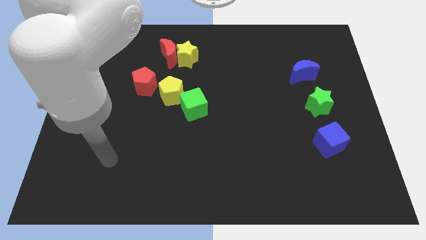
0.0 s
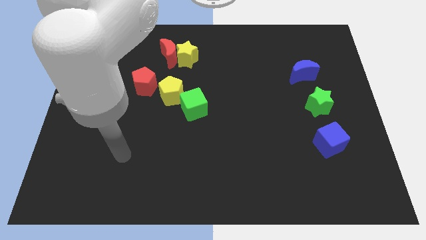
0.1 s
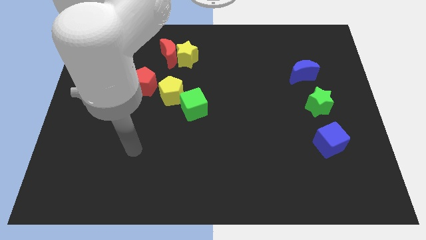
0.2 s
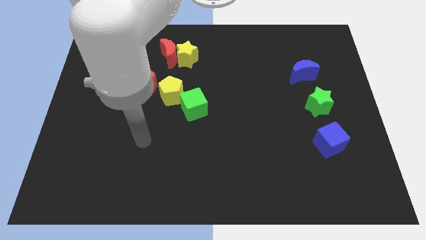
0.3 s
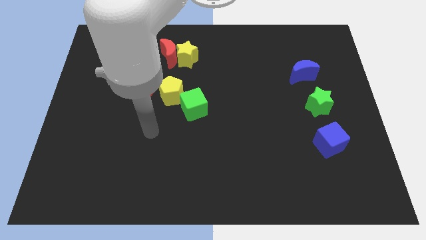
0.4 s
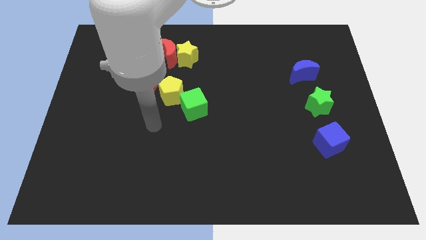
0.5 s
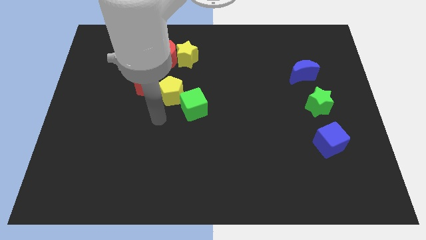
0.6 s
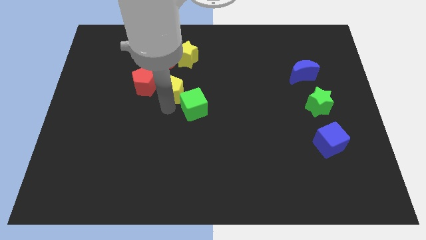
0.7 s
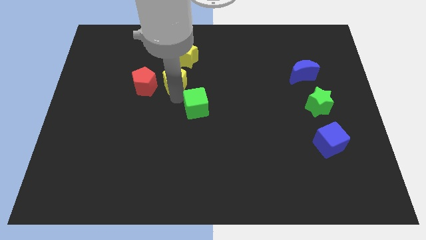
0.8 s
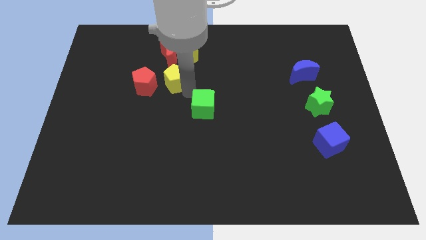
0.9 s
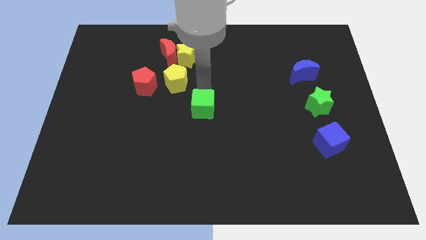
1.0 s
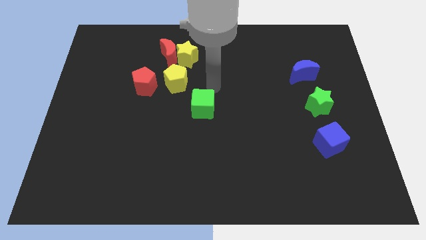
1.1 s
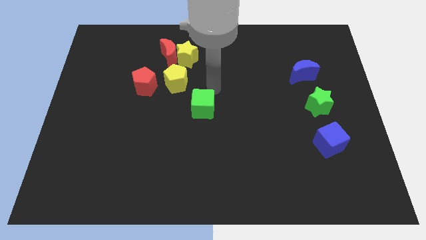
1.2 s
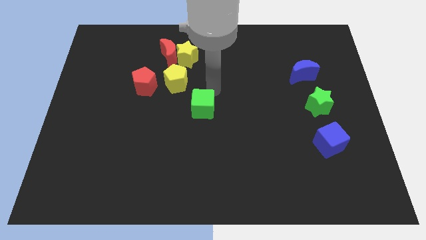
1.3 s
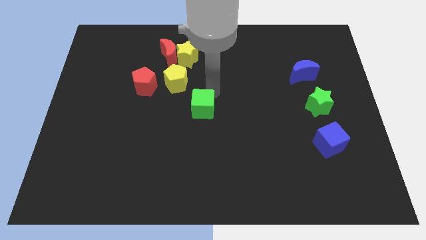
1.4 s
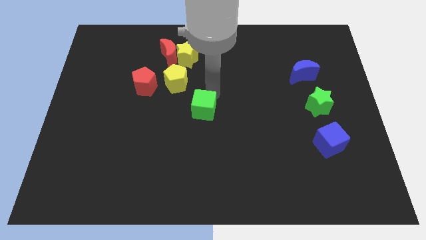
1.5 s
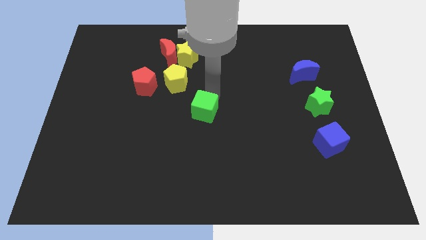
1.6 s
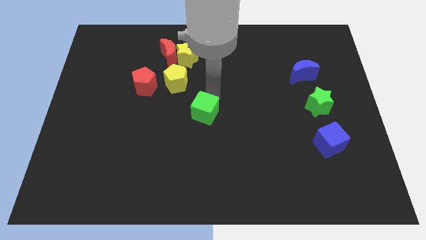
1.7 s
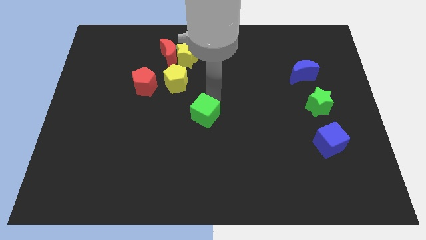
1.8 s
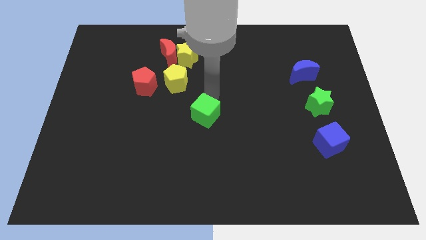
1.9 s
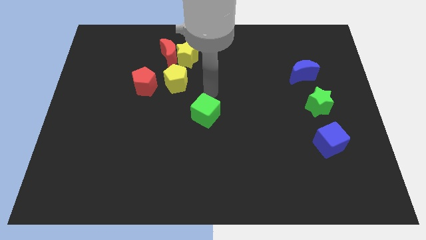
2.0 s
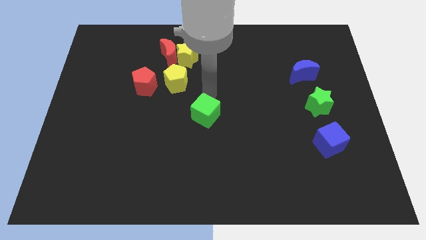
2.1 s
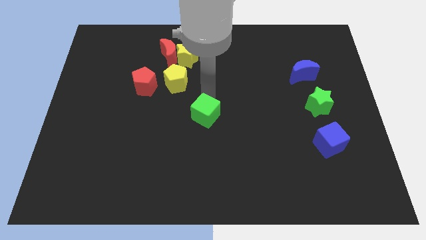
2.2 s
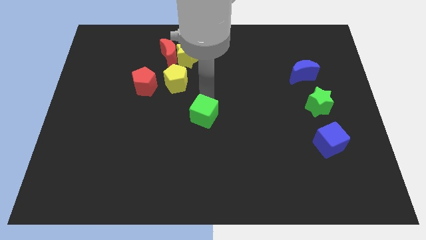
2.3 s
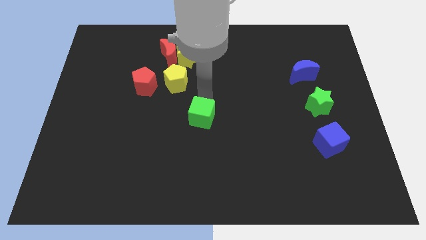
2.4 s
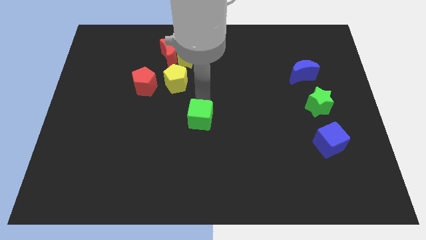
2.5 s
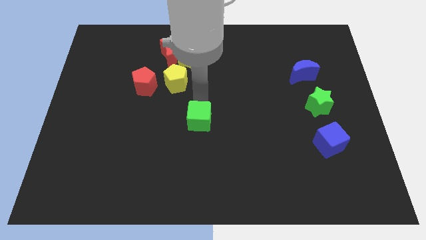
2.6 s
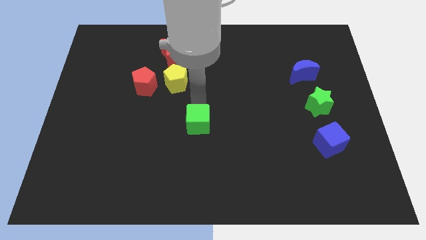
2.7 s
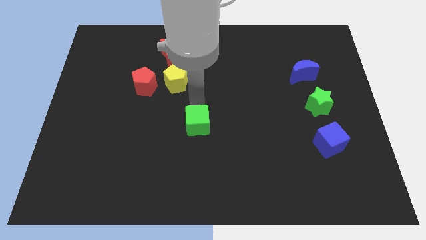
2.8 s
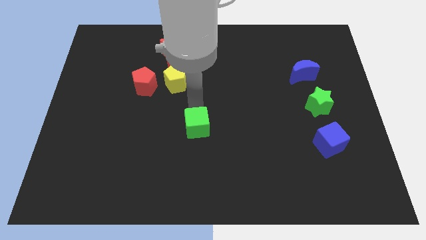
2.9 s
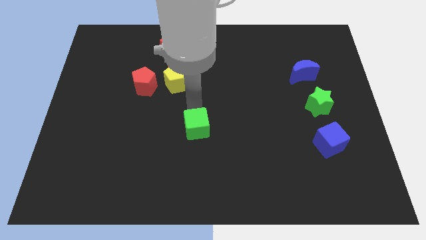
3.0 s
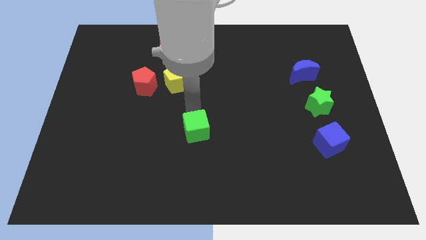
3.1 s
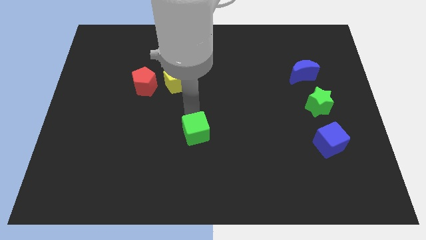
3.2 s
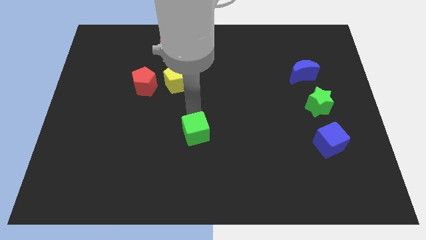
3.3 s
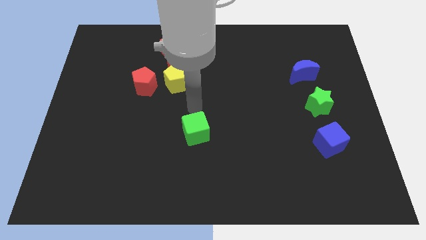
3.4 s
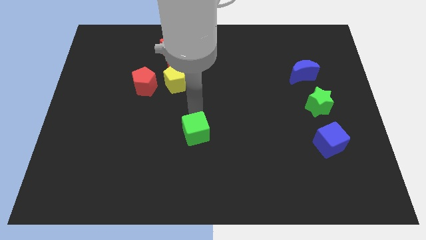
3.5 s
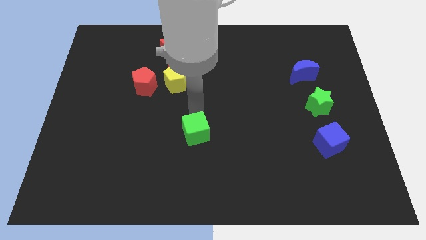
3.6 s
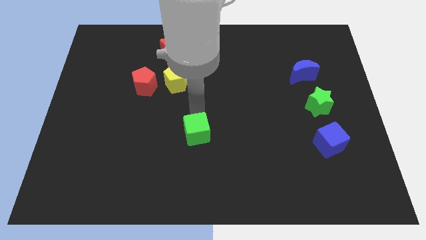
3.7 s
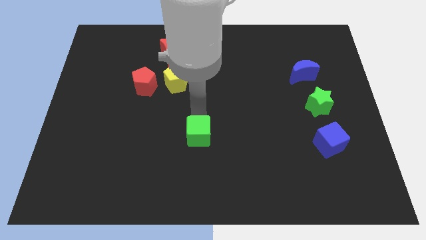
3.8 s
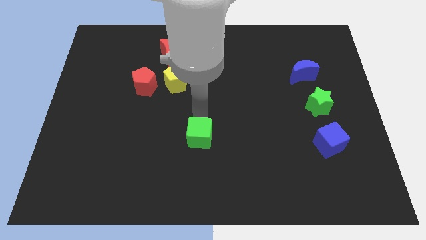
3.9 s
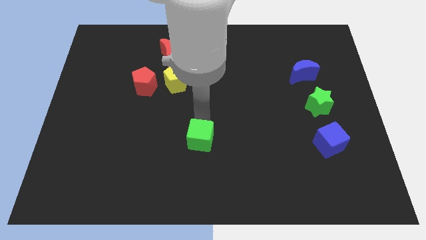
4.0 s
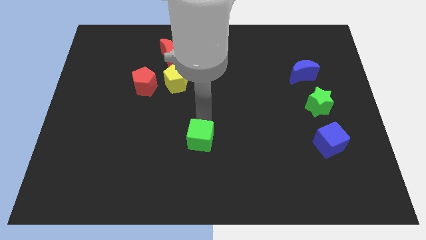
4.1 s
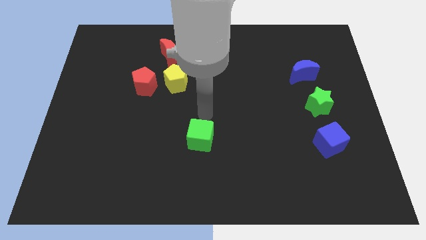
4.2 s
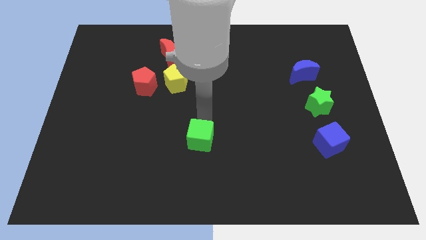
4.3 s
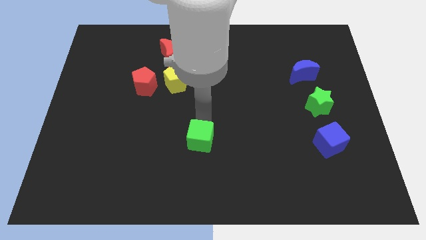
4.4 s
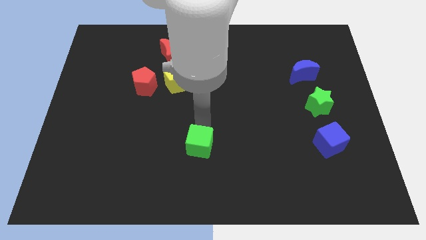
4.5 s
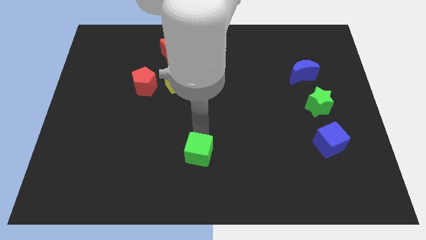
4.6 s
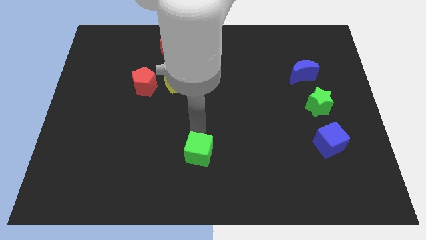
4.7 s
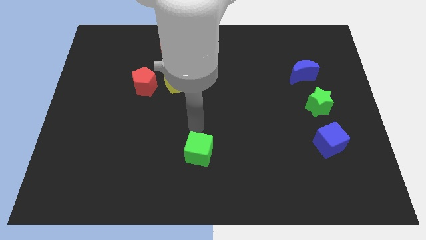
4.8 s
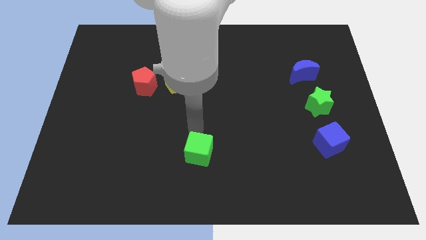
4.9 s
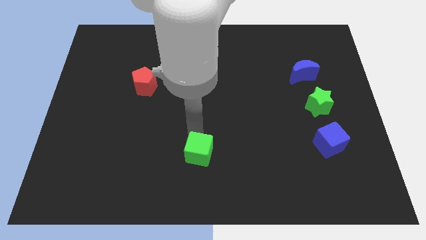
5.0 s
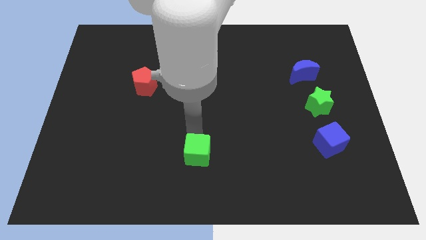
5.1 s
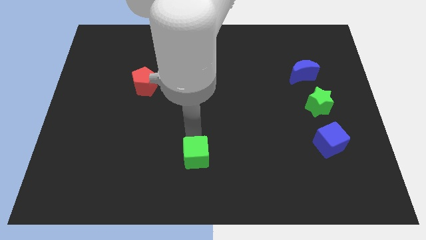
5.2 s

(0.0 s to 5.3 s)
push the green cube to the bottom side
